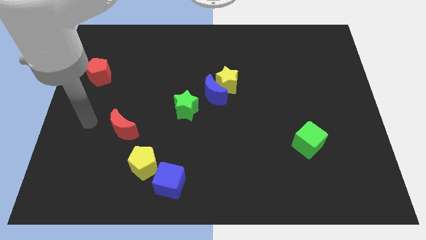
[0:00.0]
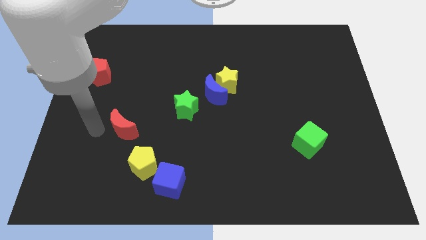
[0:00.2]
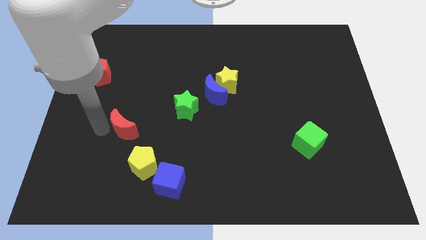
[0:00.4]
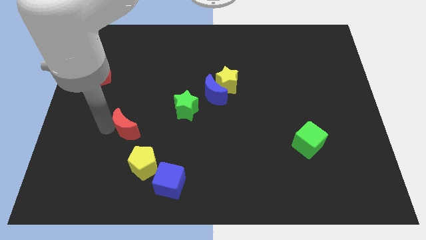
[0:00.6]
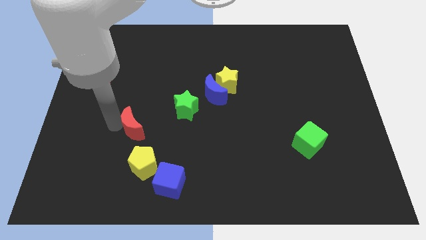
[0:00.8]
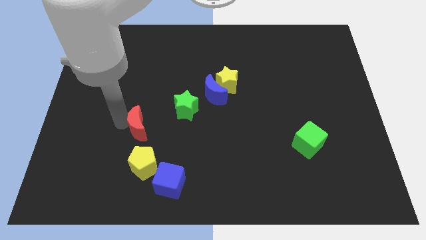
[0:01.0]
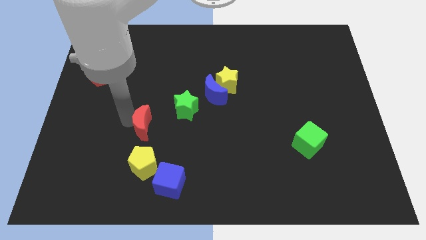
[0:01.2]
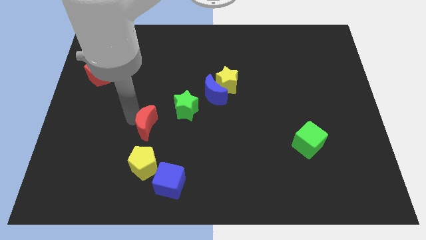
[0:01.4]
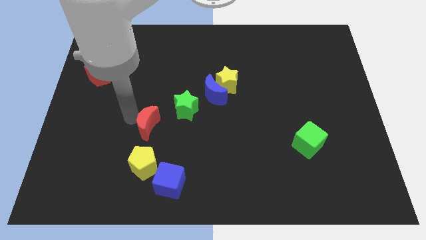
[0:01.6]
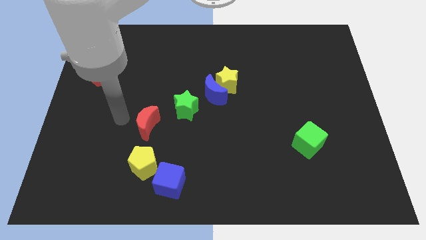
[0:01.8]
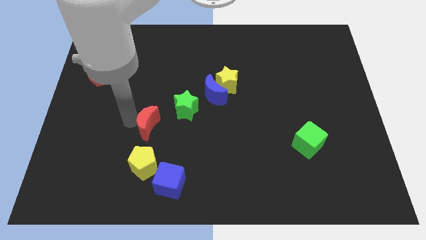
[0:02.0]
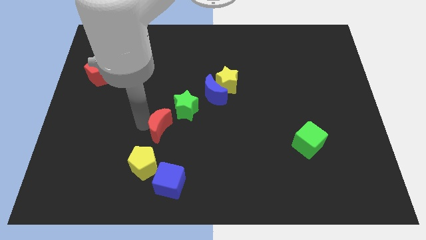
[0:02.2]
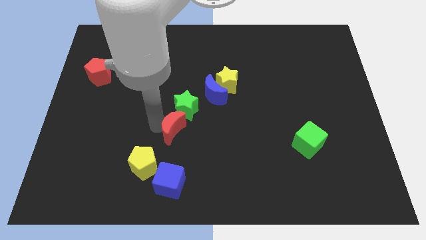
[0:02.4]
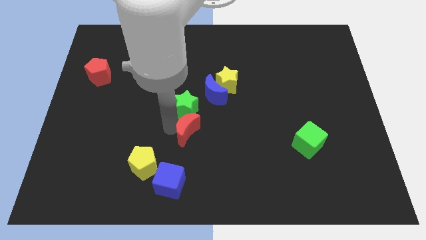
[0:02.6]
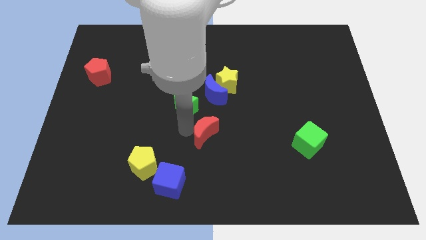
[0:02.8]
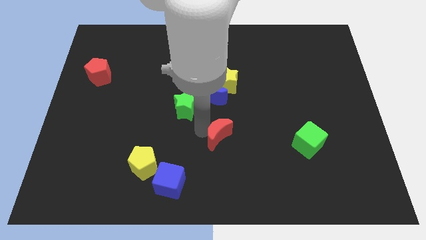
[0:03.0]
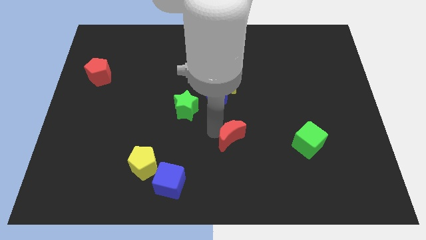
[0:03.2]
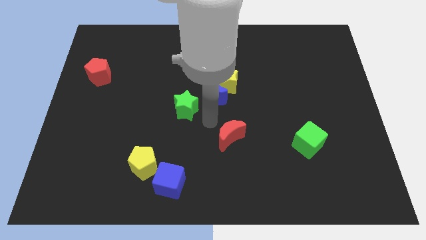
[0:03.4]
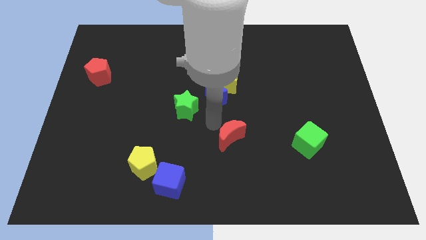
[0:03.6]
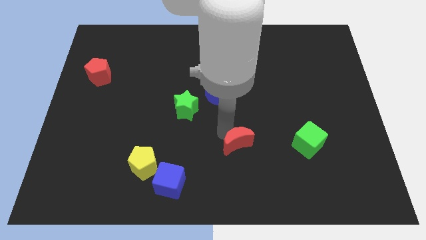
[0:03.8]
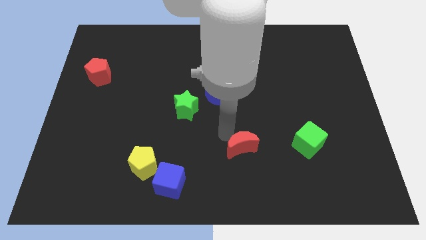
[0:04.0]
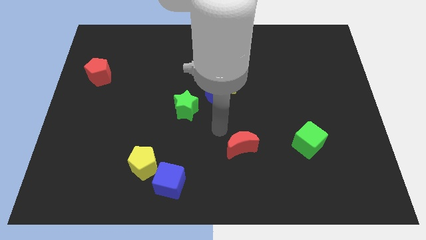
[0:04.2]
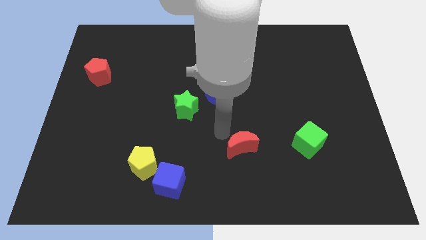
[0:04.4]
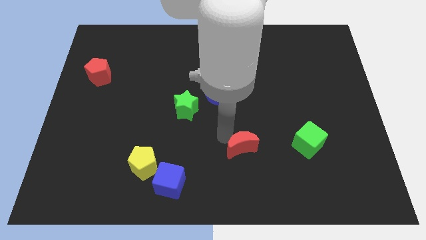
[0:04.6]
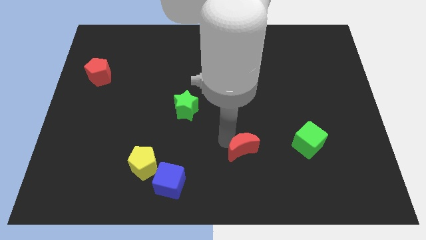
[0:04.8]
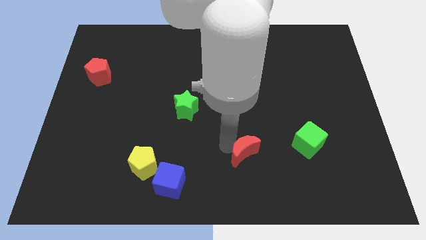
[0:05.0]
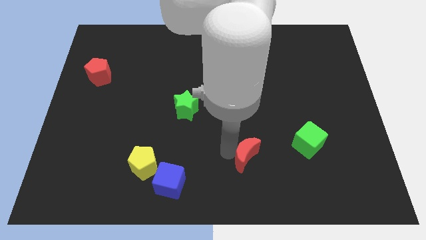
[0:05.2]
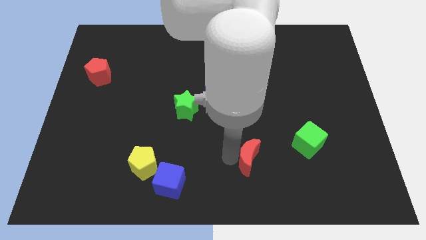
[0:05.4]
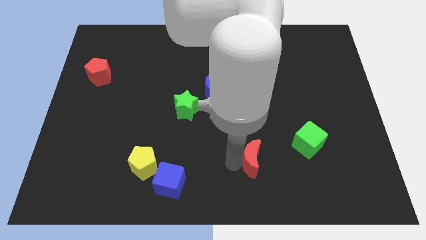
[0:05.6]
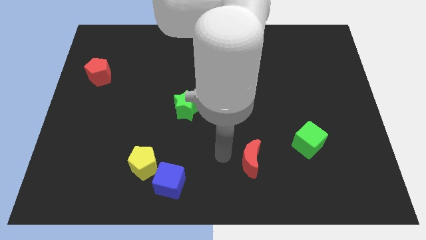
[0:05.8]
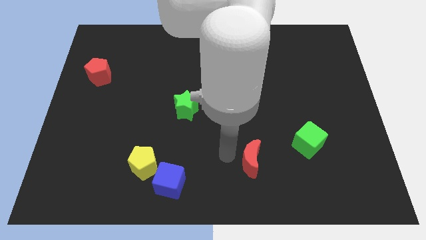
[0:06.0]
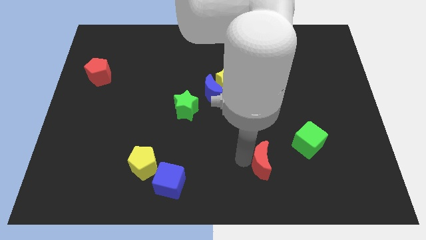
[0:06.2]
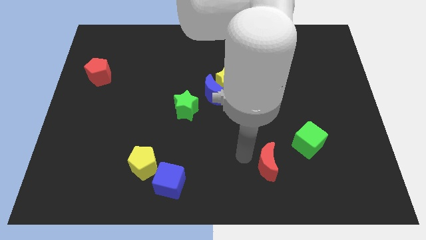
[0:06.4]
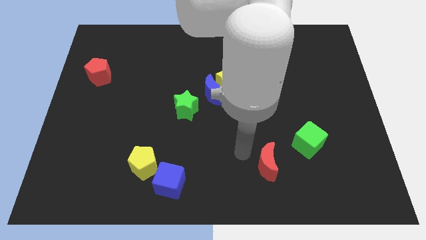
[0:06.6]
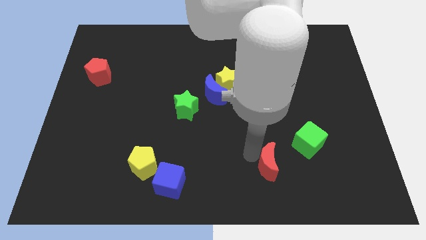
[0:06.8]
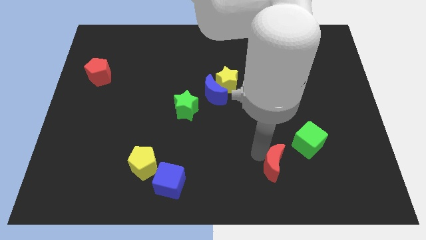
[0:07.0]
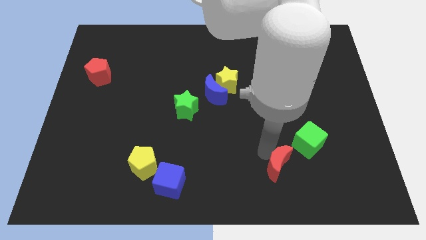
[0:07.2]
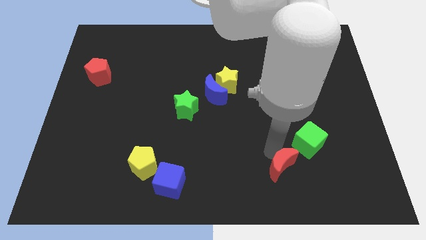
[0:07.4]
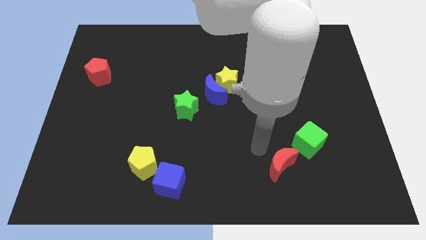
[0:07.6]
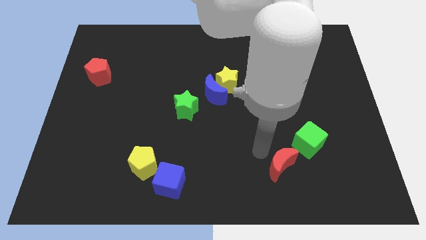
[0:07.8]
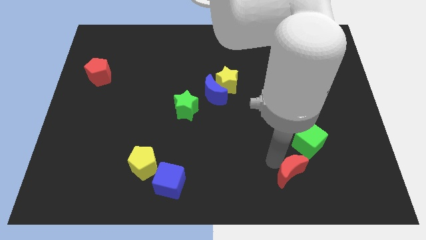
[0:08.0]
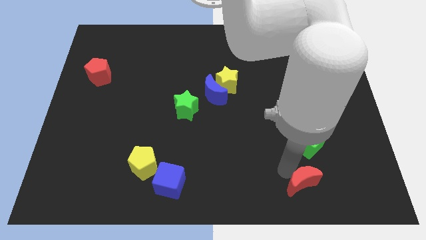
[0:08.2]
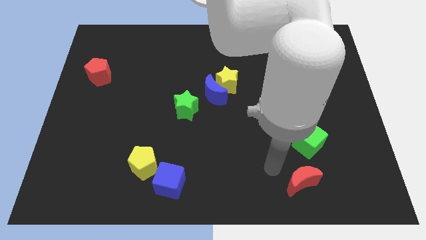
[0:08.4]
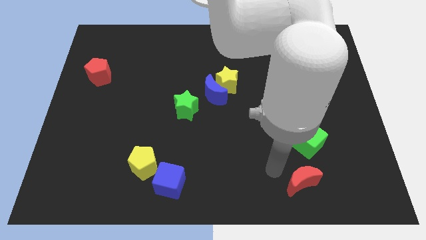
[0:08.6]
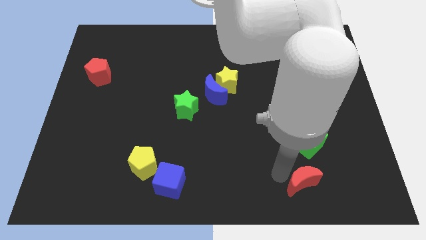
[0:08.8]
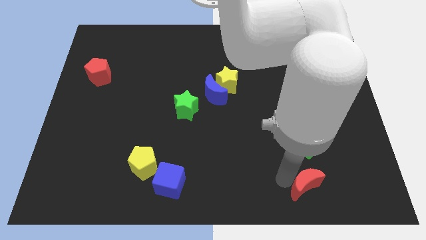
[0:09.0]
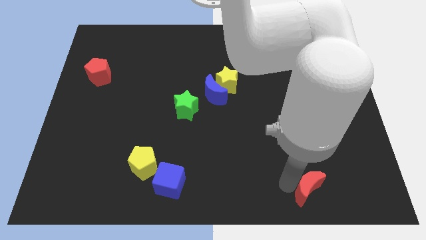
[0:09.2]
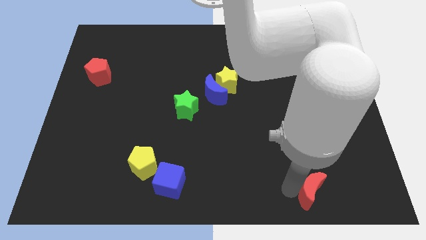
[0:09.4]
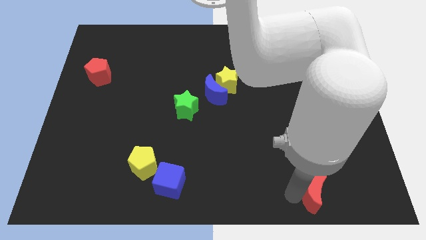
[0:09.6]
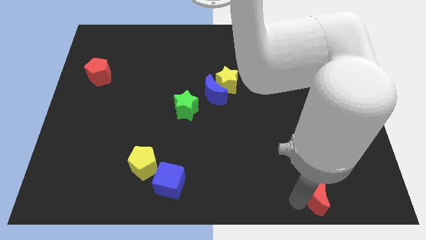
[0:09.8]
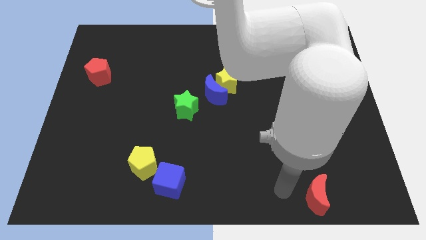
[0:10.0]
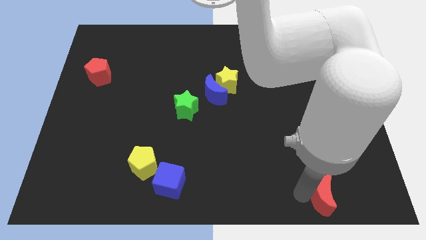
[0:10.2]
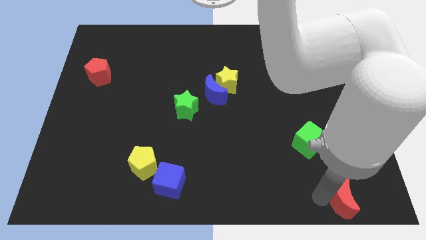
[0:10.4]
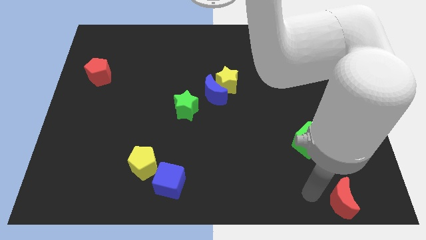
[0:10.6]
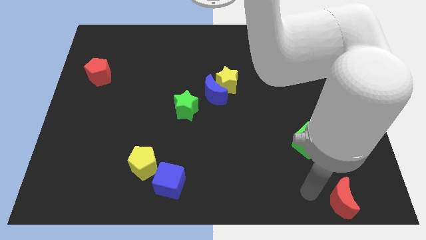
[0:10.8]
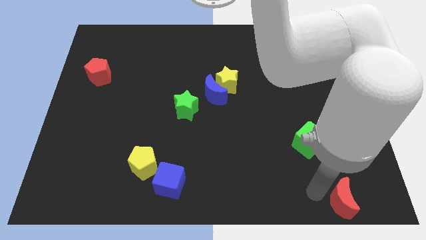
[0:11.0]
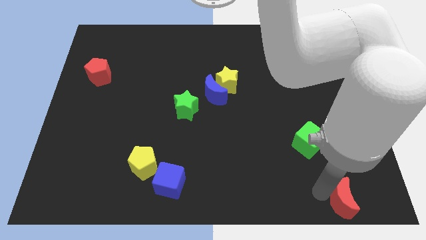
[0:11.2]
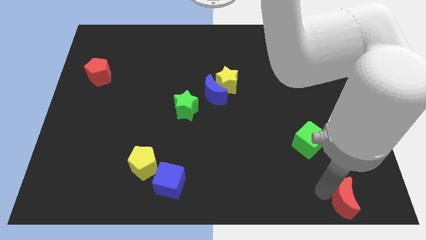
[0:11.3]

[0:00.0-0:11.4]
put the red moon to the bottom right corner
